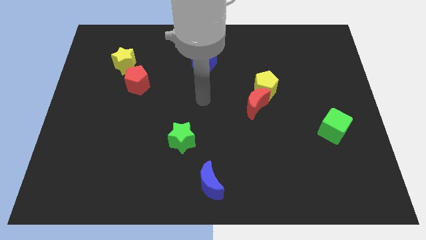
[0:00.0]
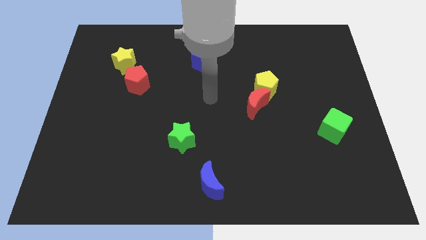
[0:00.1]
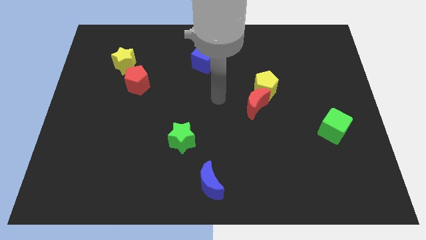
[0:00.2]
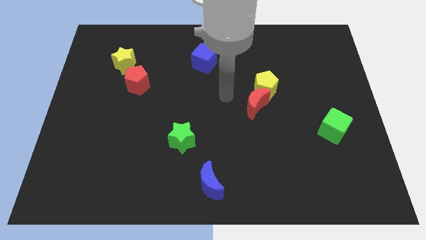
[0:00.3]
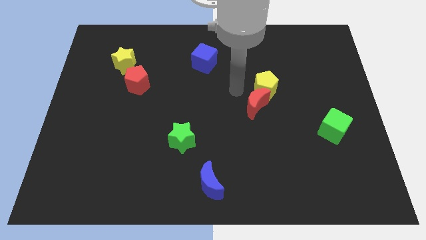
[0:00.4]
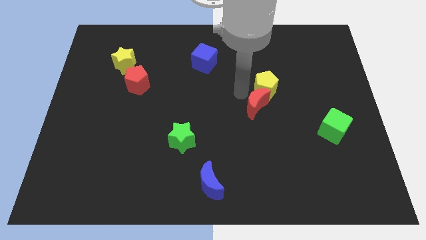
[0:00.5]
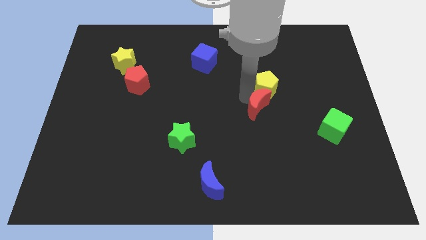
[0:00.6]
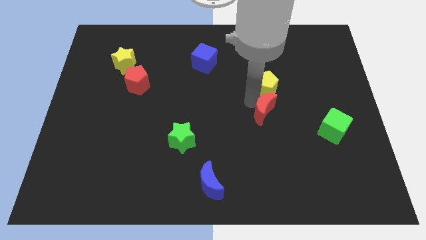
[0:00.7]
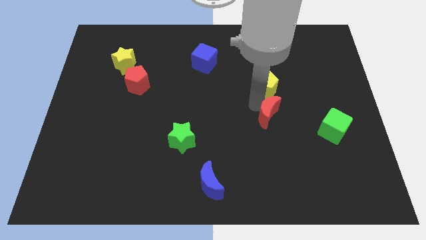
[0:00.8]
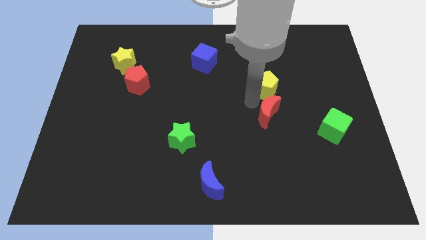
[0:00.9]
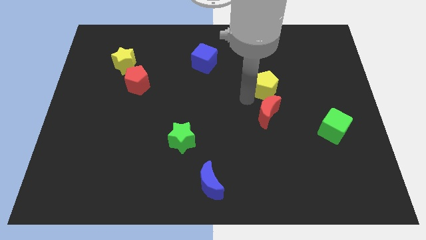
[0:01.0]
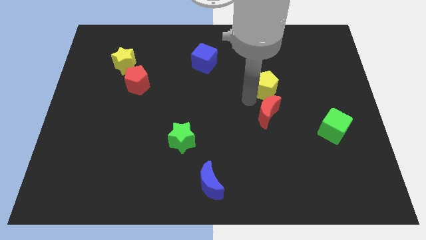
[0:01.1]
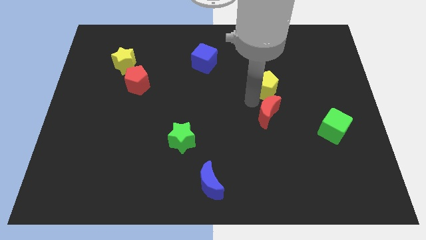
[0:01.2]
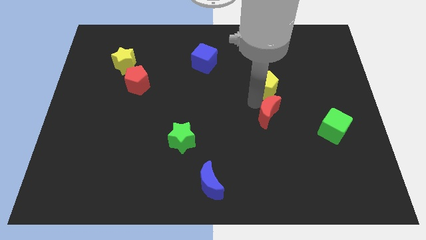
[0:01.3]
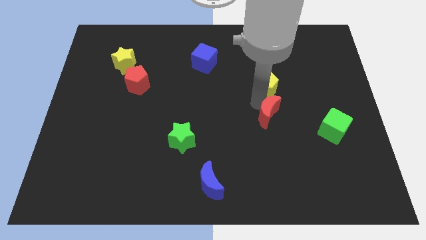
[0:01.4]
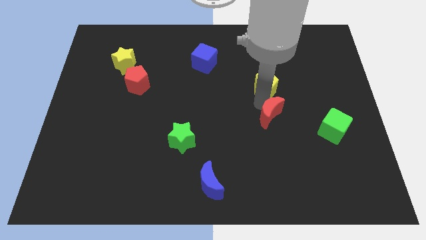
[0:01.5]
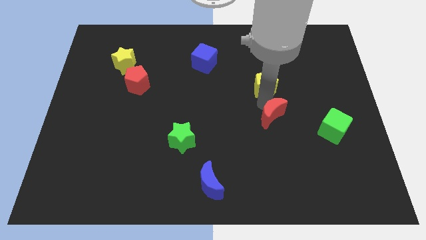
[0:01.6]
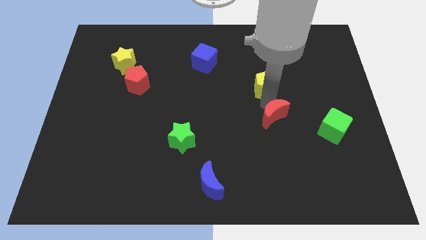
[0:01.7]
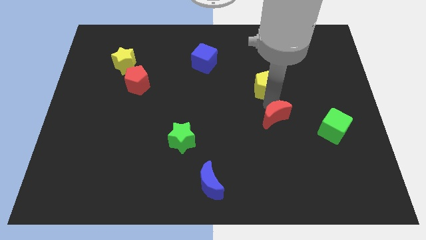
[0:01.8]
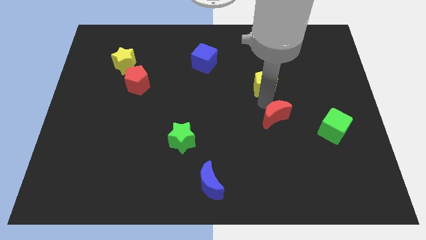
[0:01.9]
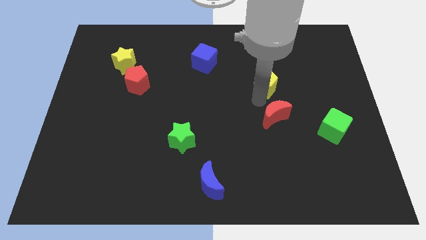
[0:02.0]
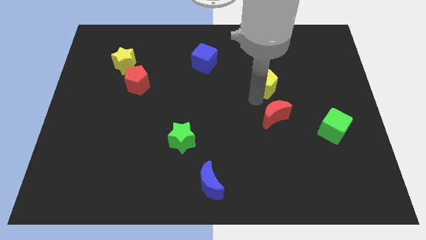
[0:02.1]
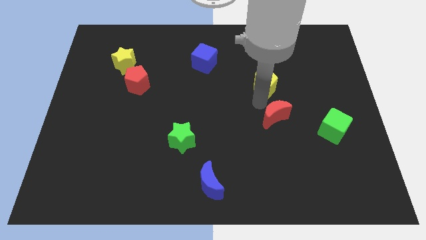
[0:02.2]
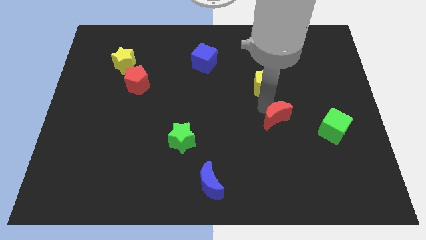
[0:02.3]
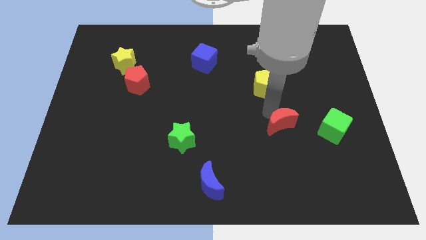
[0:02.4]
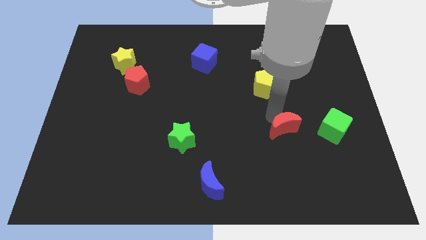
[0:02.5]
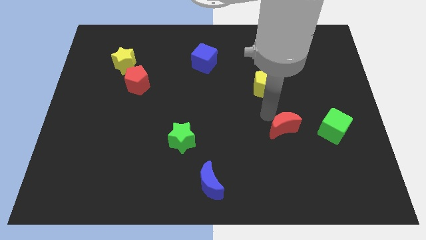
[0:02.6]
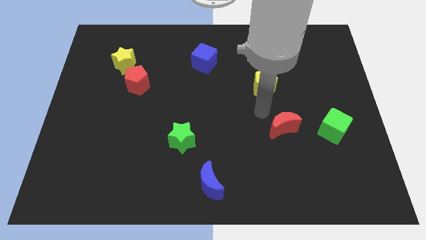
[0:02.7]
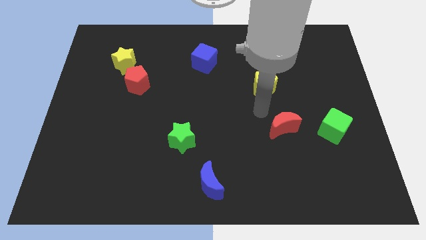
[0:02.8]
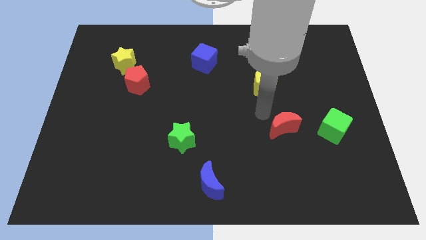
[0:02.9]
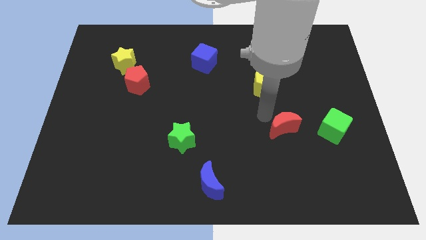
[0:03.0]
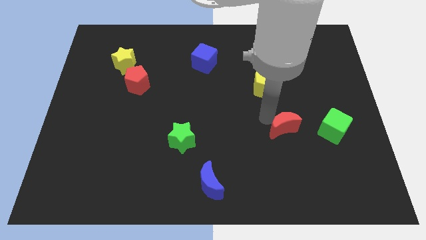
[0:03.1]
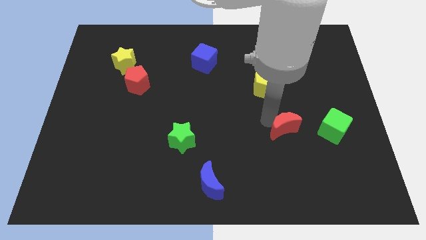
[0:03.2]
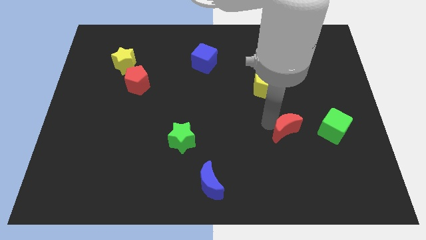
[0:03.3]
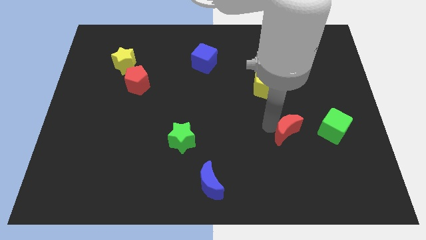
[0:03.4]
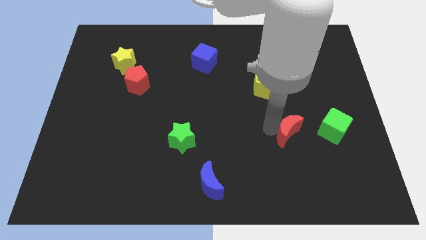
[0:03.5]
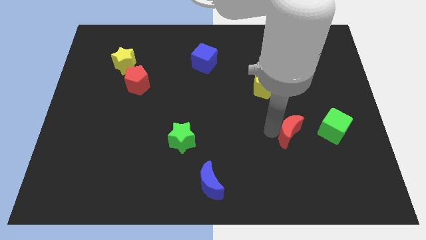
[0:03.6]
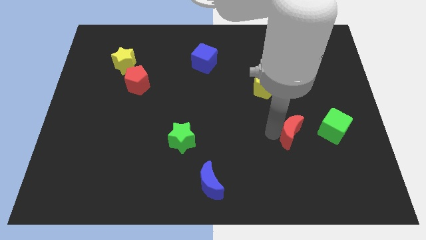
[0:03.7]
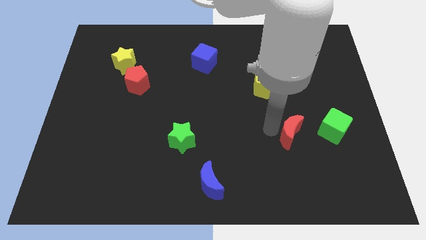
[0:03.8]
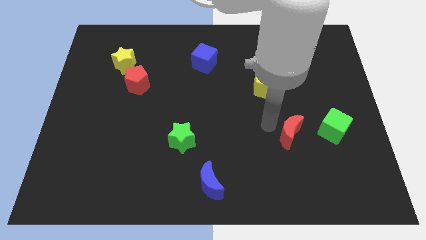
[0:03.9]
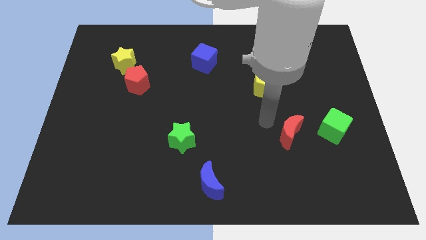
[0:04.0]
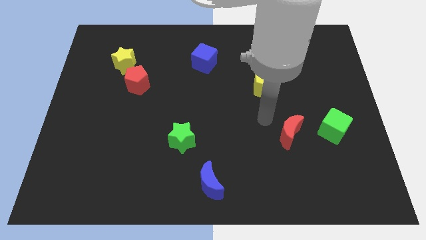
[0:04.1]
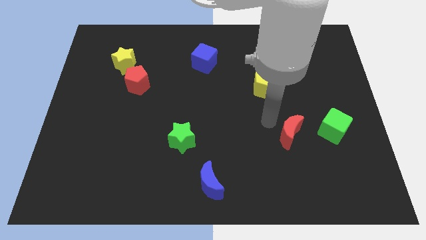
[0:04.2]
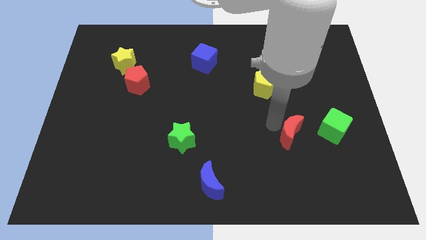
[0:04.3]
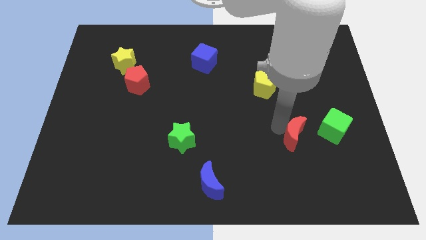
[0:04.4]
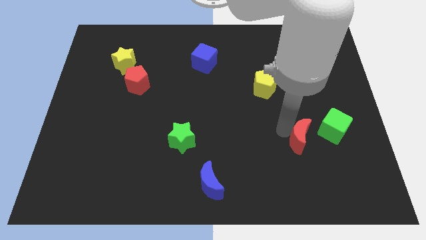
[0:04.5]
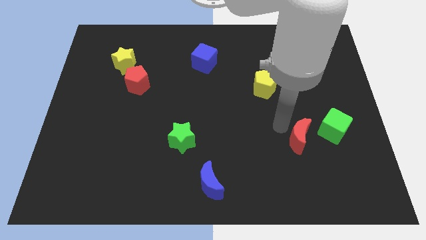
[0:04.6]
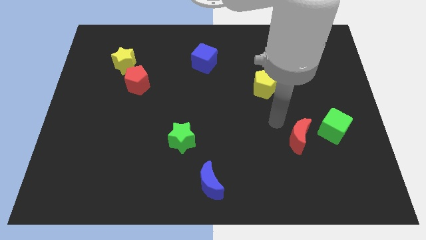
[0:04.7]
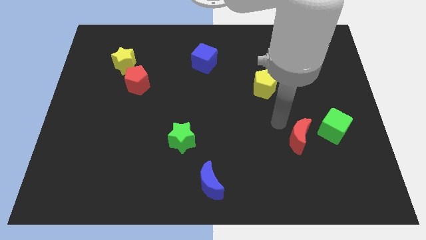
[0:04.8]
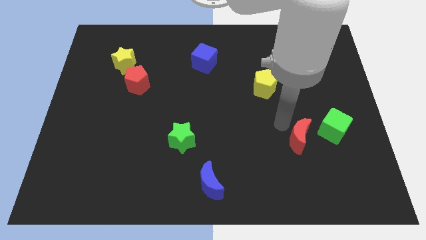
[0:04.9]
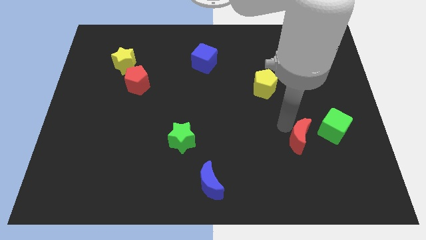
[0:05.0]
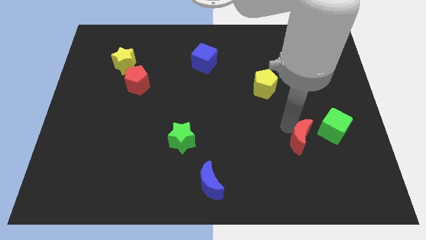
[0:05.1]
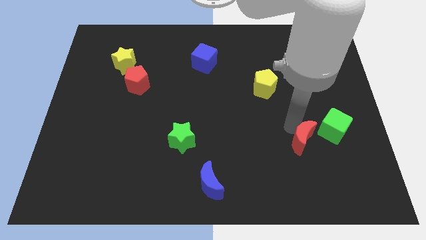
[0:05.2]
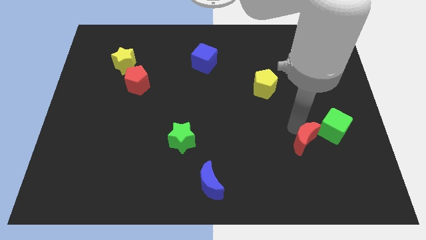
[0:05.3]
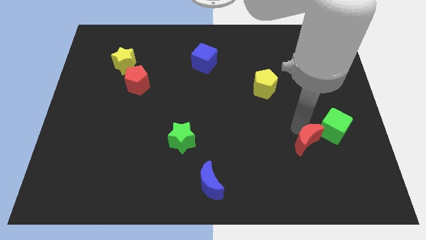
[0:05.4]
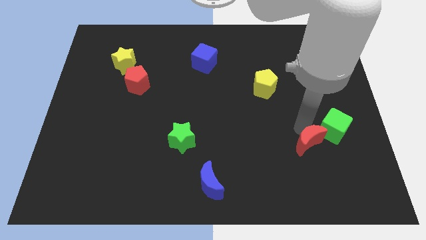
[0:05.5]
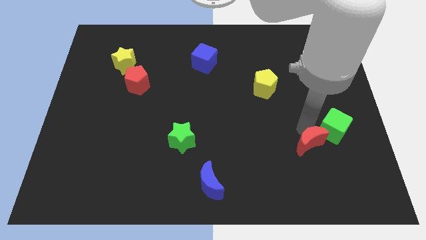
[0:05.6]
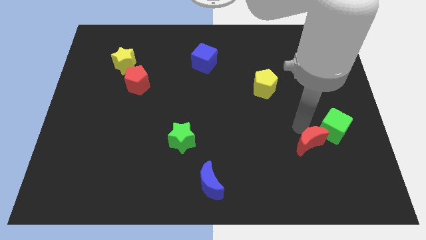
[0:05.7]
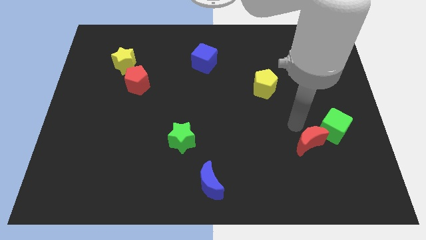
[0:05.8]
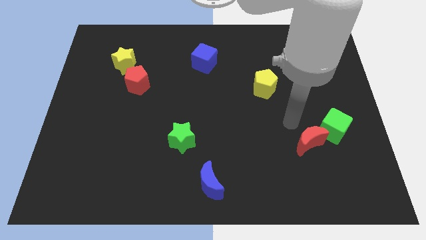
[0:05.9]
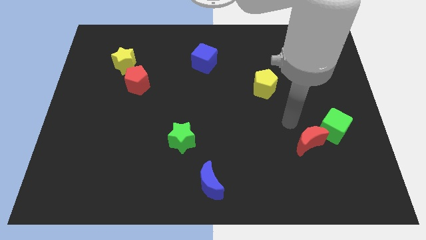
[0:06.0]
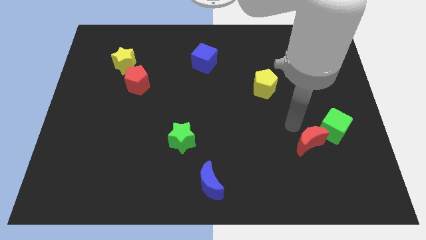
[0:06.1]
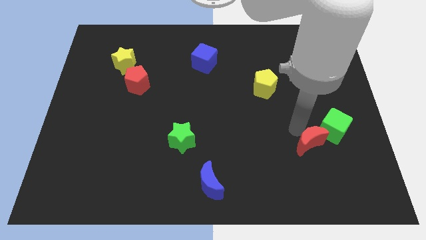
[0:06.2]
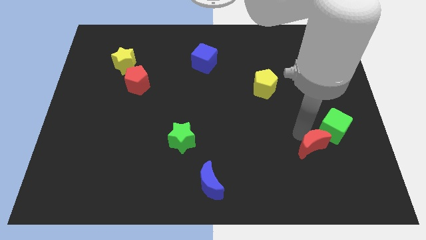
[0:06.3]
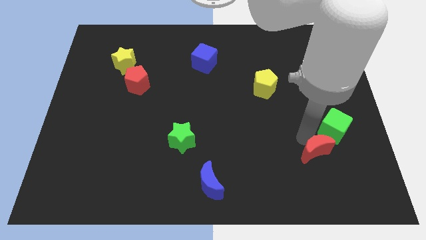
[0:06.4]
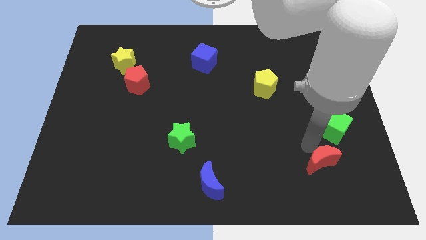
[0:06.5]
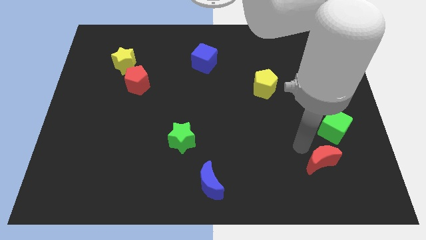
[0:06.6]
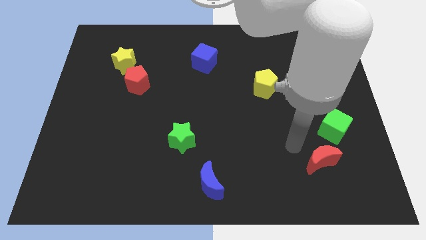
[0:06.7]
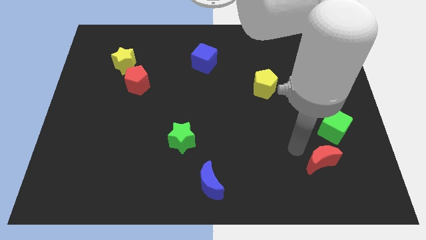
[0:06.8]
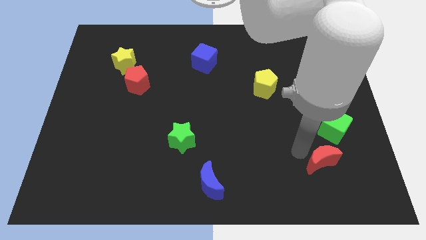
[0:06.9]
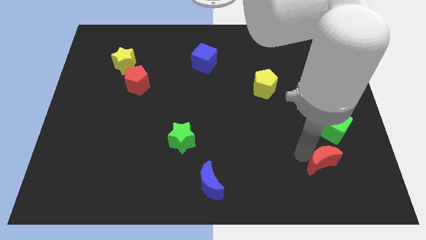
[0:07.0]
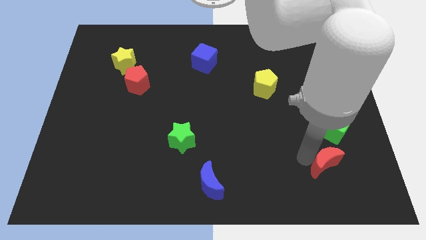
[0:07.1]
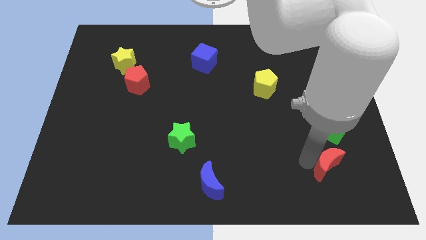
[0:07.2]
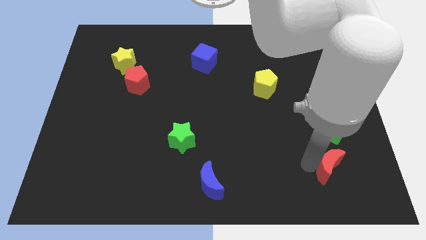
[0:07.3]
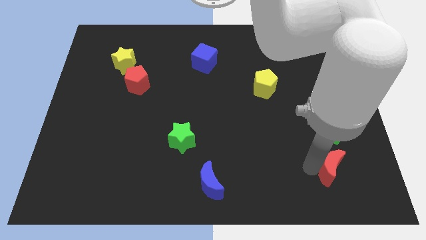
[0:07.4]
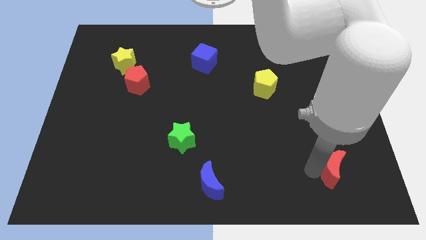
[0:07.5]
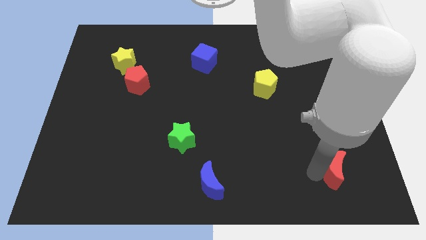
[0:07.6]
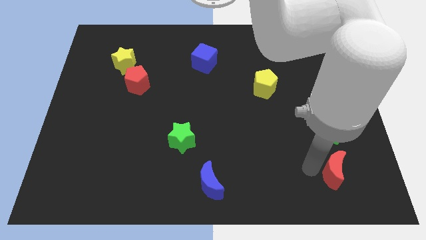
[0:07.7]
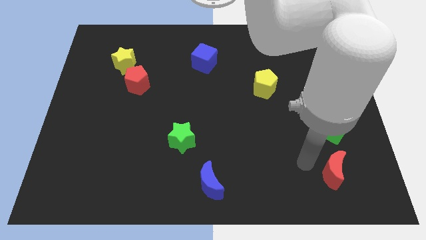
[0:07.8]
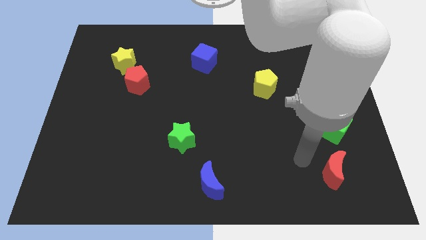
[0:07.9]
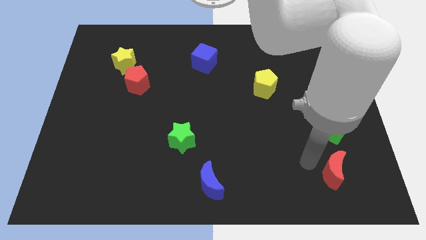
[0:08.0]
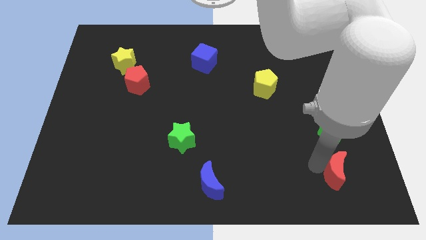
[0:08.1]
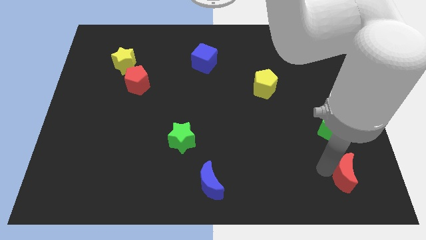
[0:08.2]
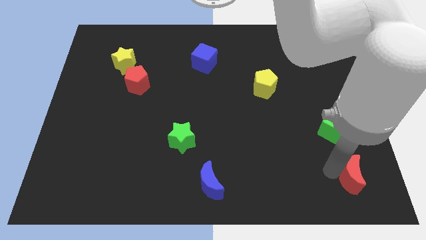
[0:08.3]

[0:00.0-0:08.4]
move the red moon to the bottom right corner
